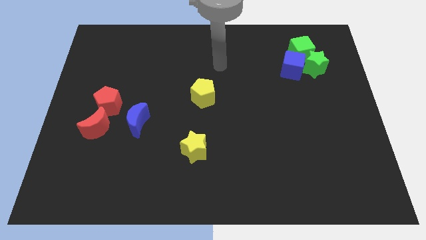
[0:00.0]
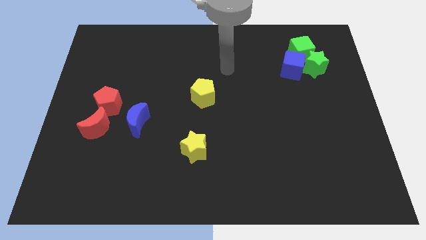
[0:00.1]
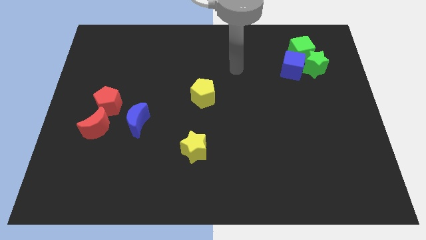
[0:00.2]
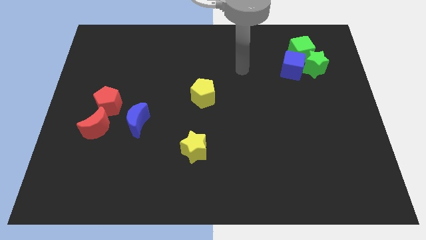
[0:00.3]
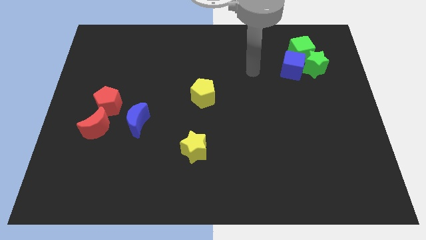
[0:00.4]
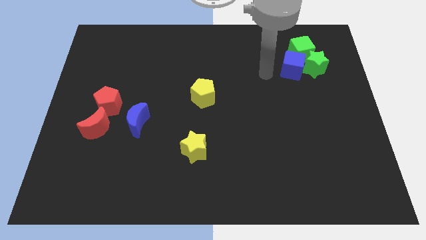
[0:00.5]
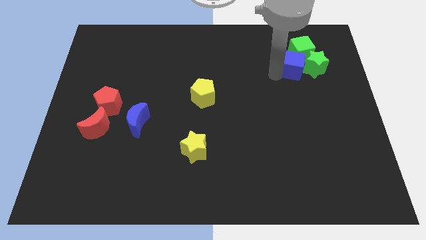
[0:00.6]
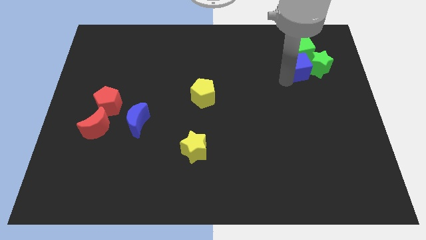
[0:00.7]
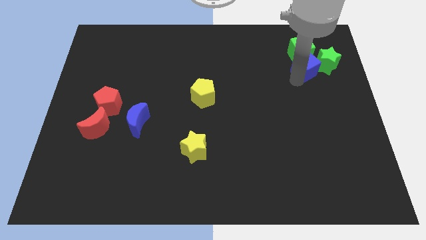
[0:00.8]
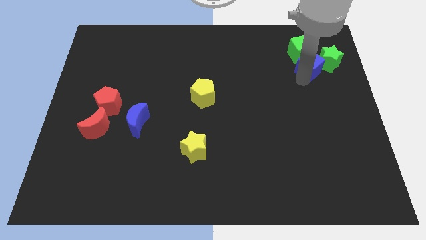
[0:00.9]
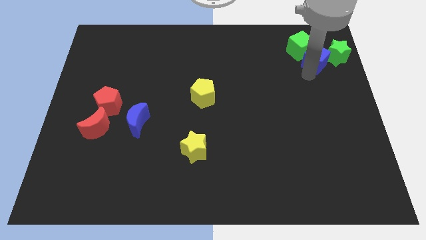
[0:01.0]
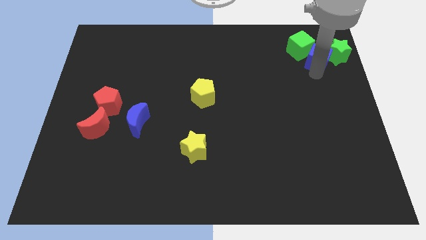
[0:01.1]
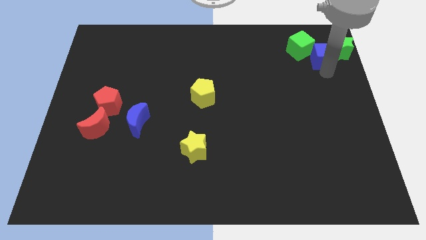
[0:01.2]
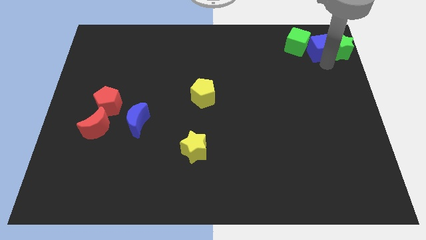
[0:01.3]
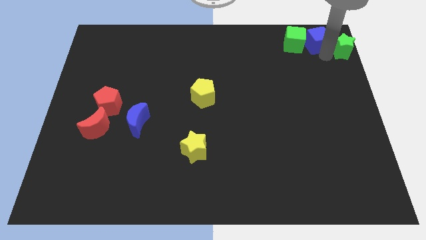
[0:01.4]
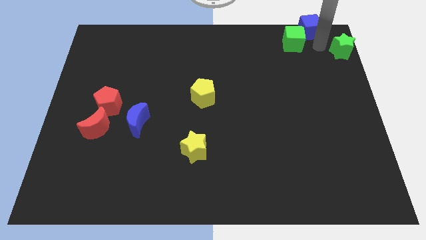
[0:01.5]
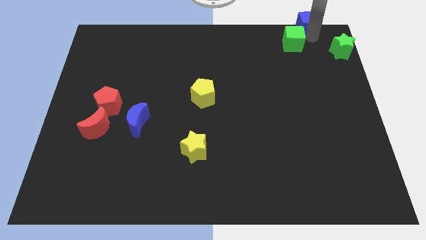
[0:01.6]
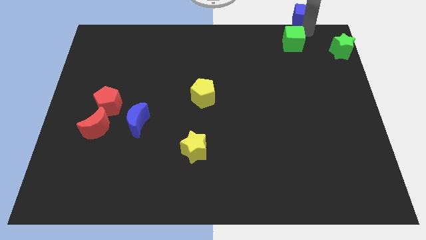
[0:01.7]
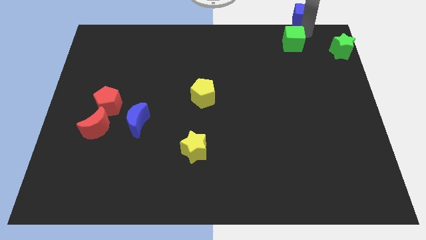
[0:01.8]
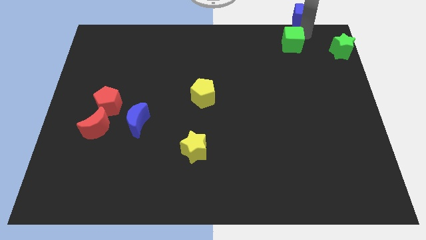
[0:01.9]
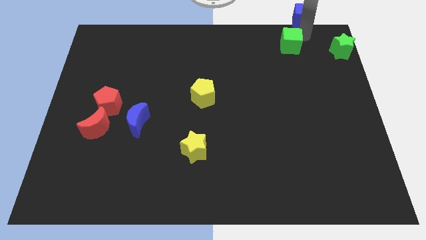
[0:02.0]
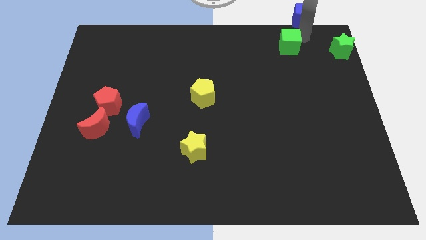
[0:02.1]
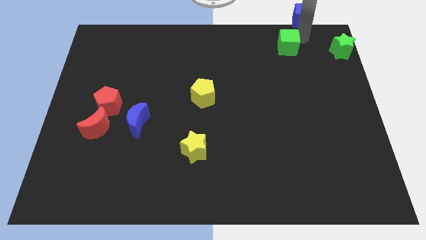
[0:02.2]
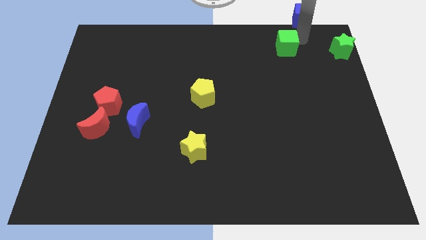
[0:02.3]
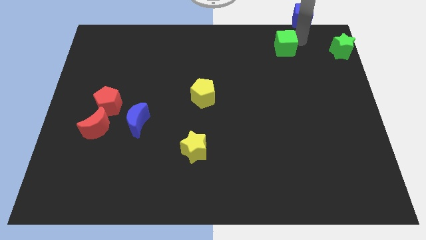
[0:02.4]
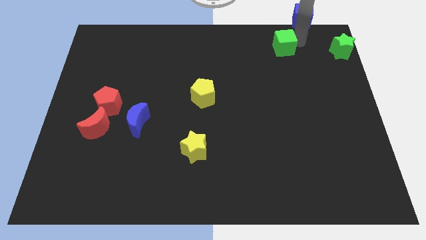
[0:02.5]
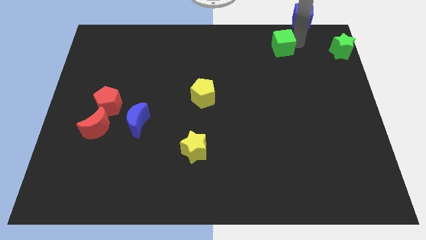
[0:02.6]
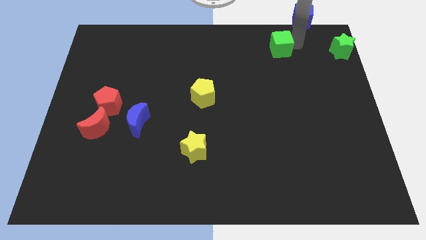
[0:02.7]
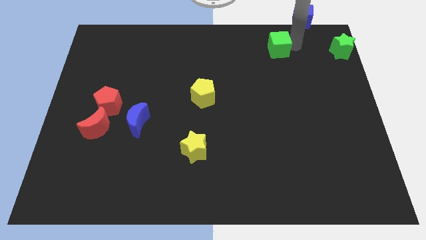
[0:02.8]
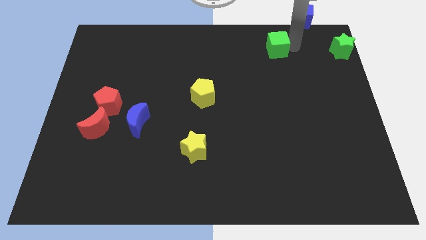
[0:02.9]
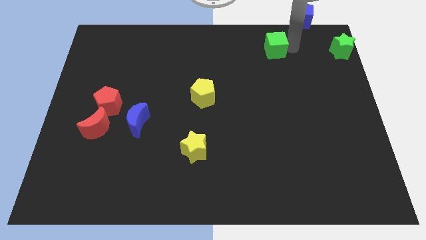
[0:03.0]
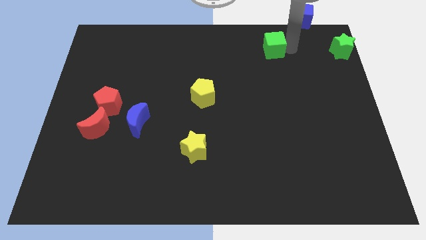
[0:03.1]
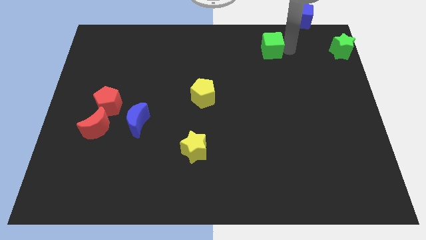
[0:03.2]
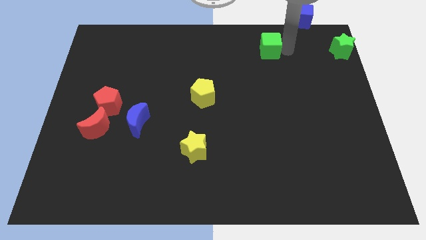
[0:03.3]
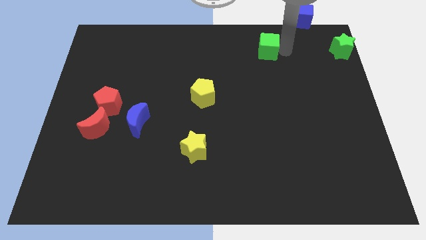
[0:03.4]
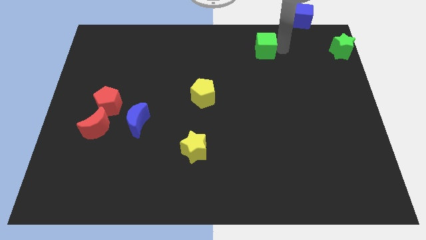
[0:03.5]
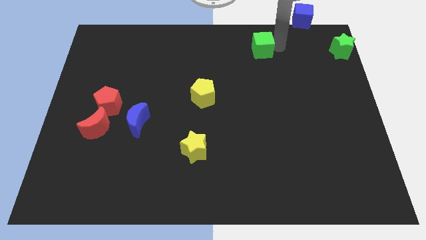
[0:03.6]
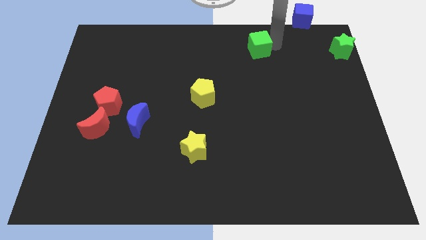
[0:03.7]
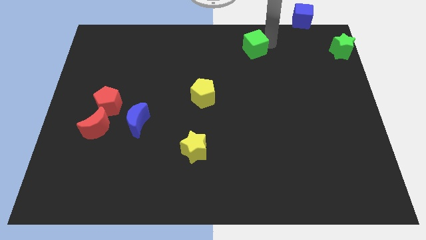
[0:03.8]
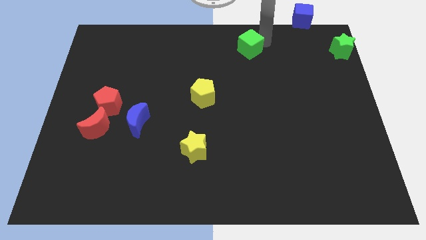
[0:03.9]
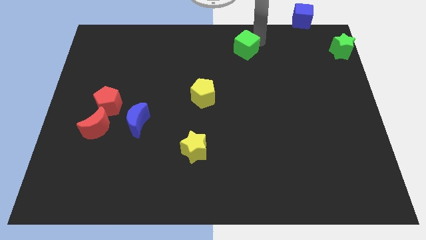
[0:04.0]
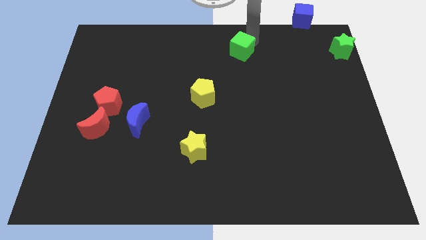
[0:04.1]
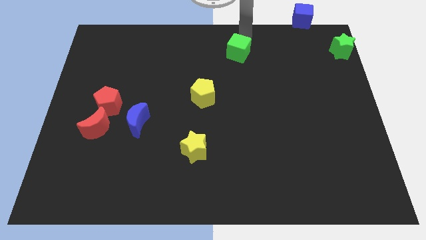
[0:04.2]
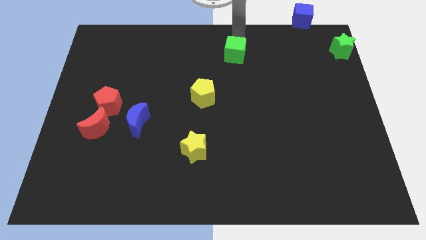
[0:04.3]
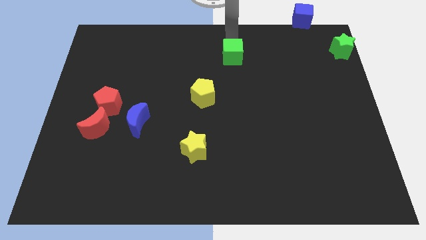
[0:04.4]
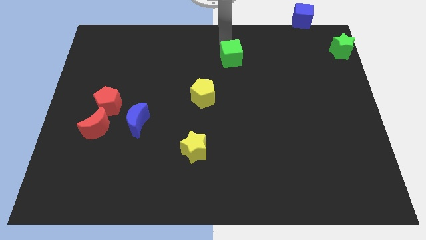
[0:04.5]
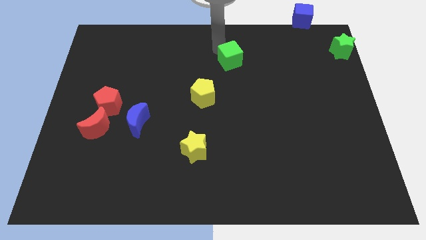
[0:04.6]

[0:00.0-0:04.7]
slide the green cube down and left a bit

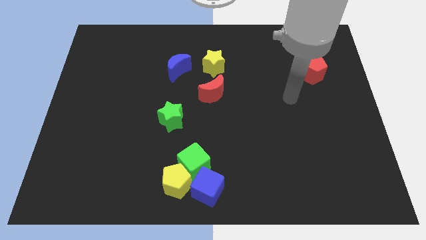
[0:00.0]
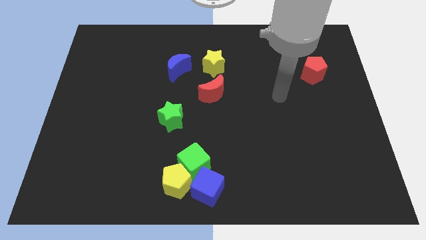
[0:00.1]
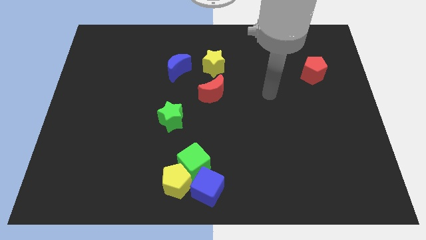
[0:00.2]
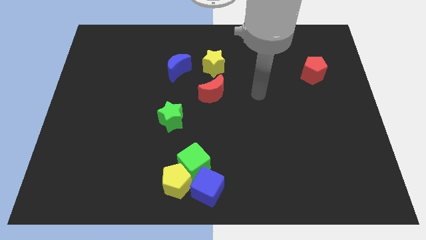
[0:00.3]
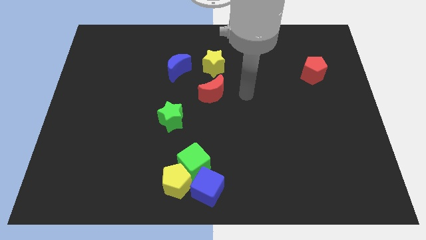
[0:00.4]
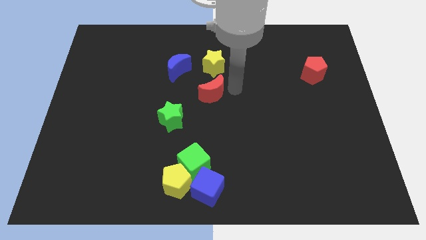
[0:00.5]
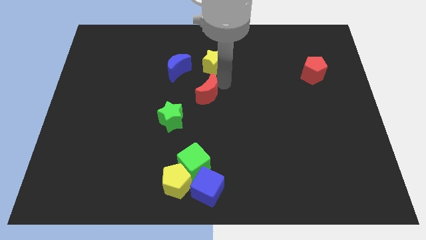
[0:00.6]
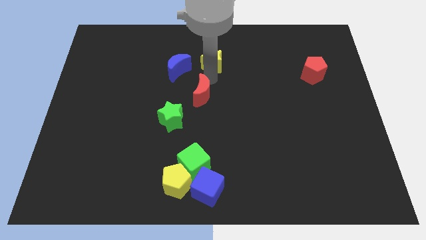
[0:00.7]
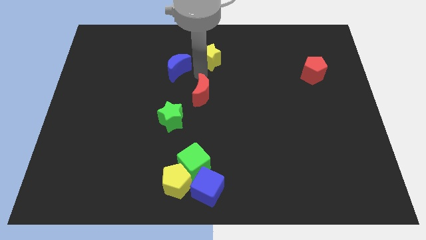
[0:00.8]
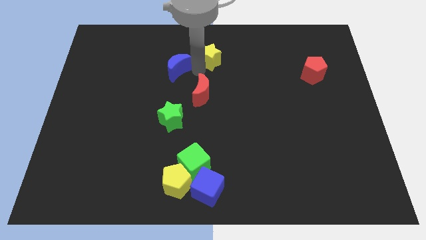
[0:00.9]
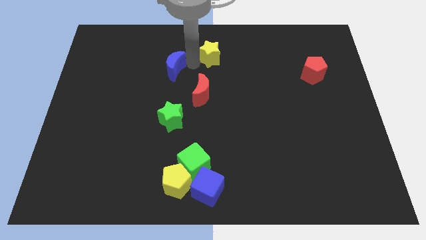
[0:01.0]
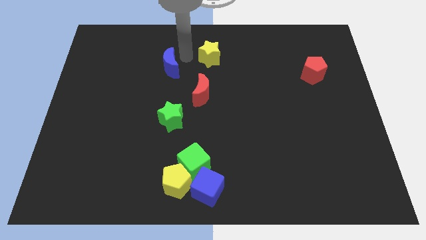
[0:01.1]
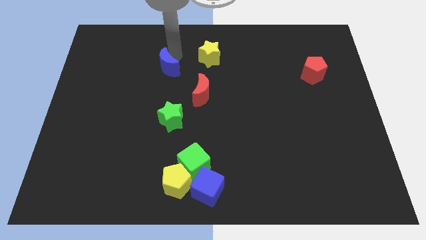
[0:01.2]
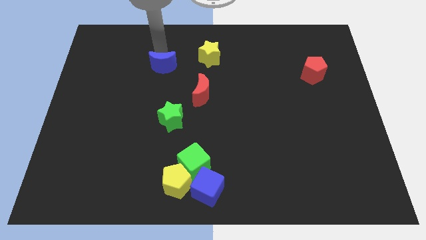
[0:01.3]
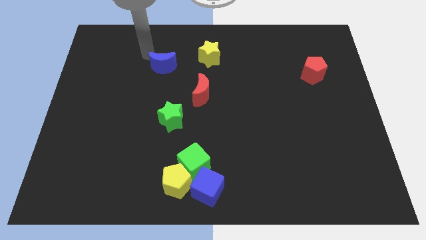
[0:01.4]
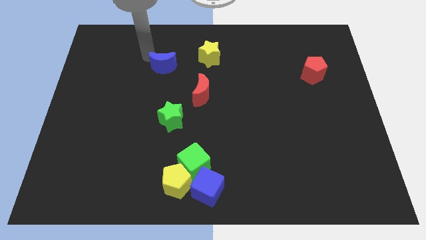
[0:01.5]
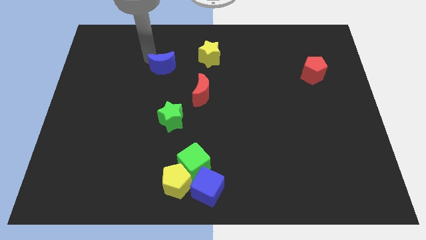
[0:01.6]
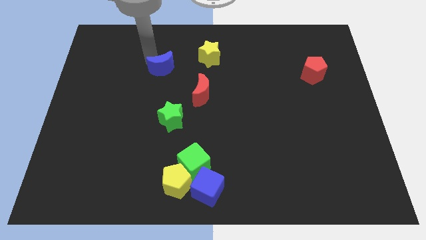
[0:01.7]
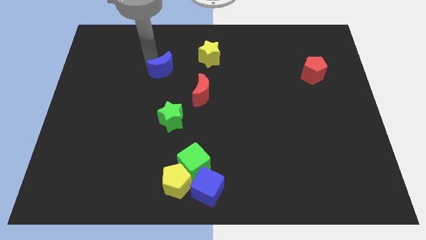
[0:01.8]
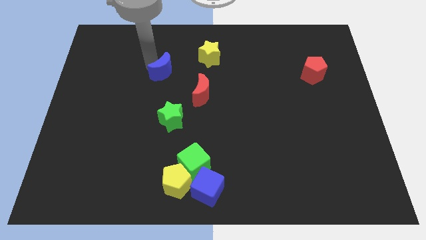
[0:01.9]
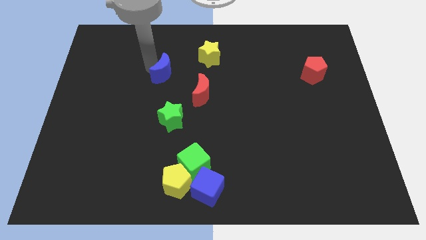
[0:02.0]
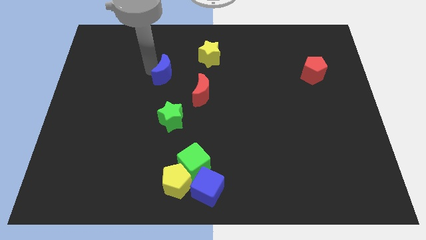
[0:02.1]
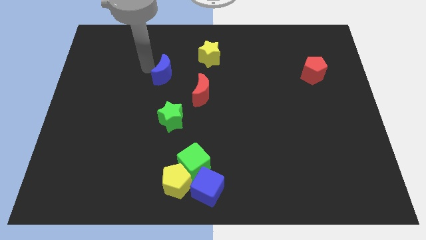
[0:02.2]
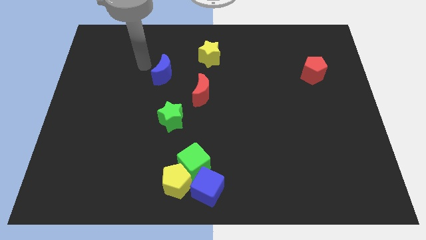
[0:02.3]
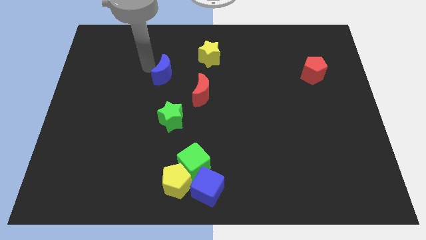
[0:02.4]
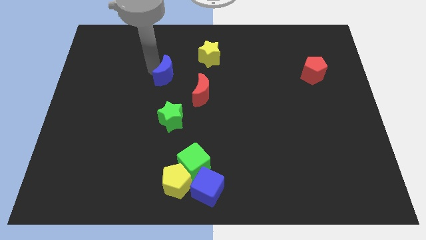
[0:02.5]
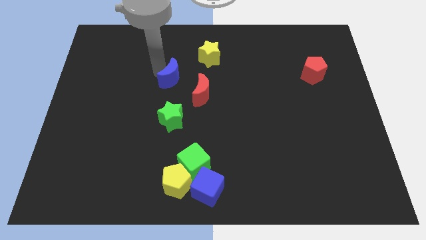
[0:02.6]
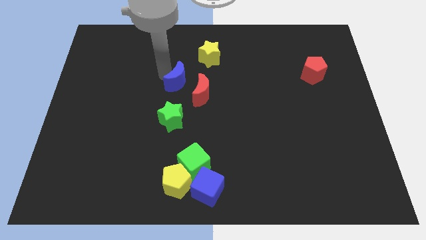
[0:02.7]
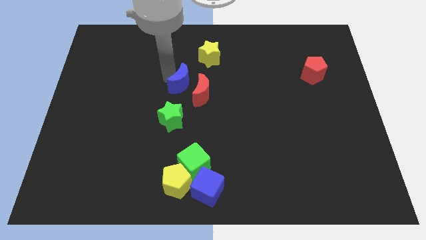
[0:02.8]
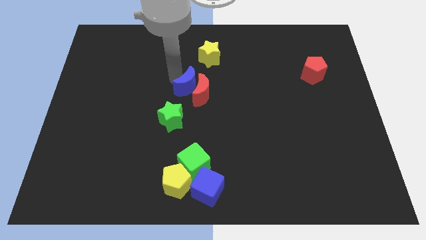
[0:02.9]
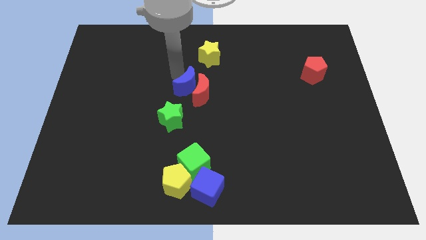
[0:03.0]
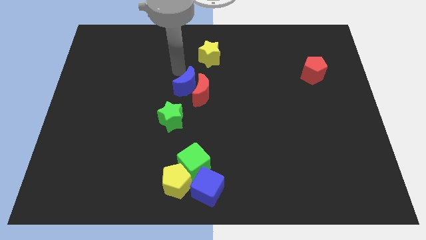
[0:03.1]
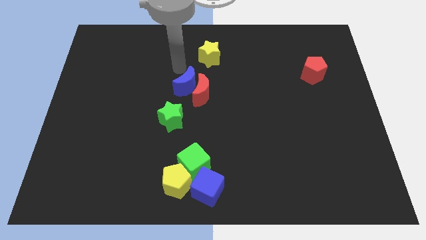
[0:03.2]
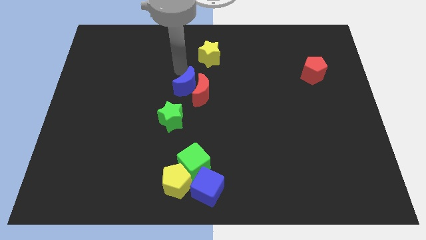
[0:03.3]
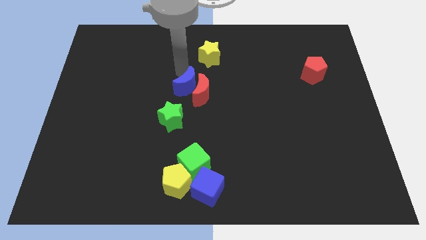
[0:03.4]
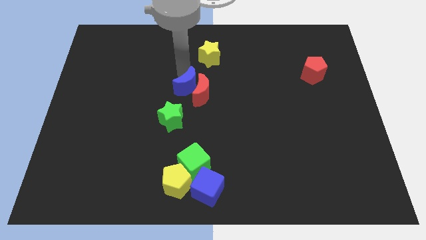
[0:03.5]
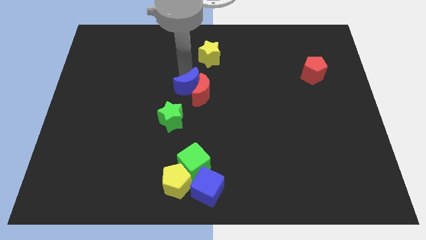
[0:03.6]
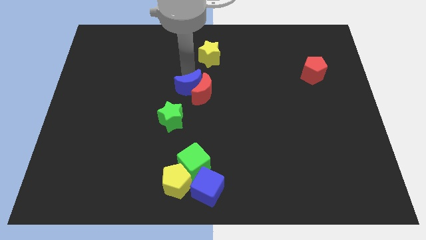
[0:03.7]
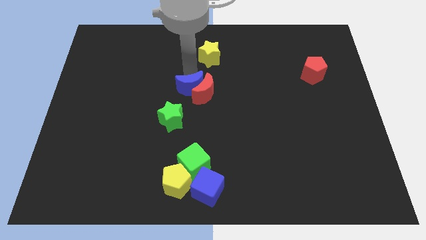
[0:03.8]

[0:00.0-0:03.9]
slightly push the blue moon down and to the right
